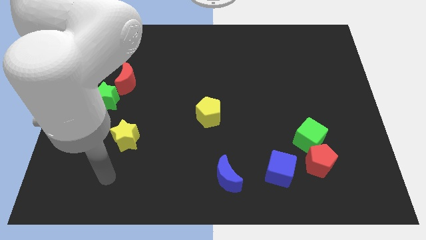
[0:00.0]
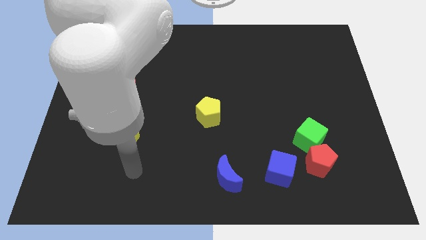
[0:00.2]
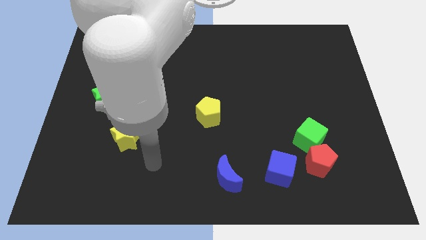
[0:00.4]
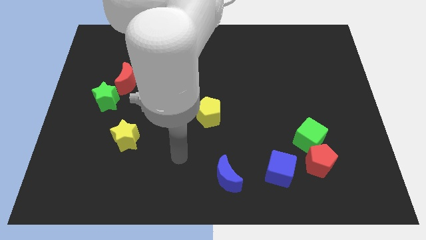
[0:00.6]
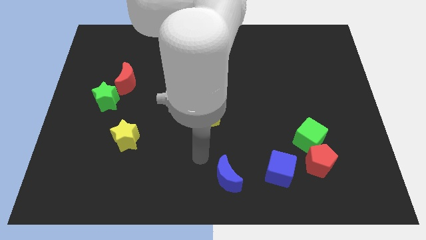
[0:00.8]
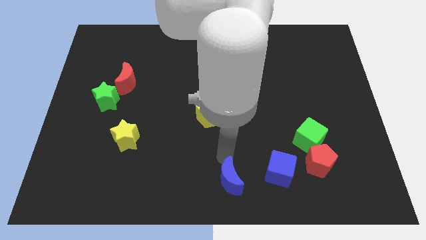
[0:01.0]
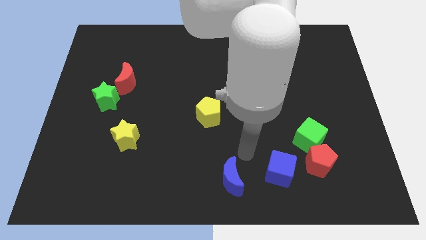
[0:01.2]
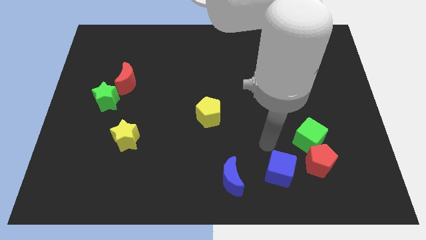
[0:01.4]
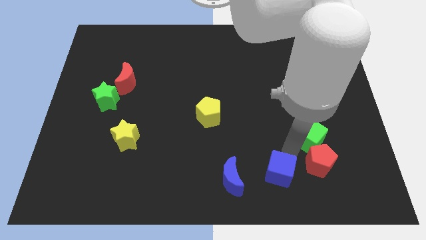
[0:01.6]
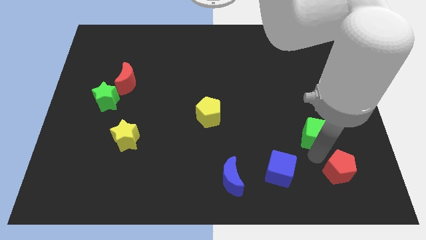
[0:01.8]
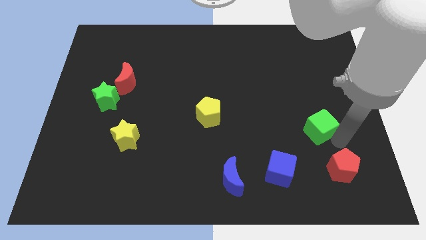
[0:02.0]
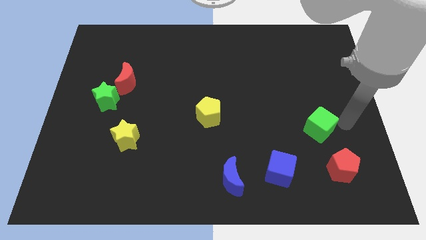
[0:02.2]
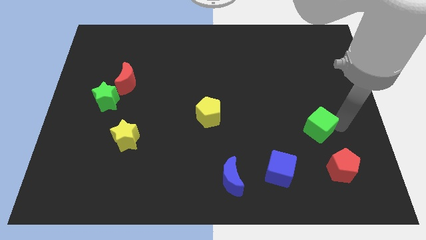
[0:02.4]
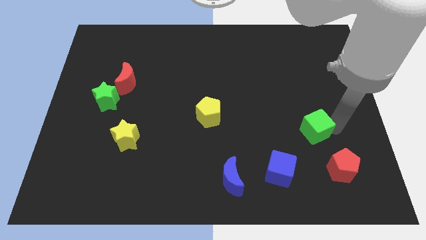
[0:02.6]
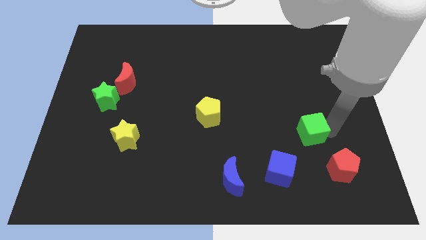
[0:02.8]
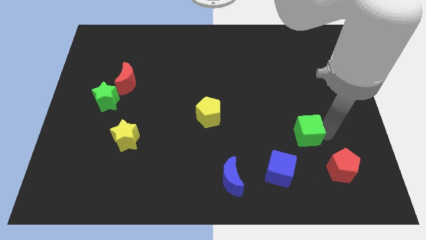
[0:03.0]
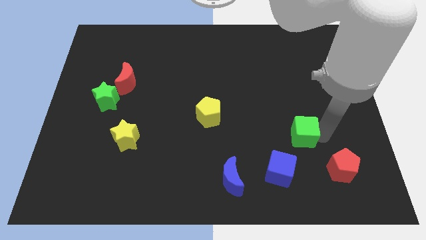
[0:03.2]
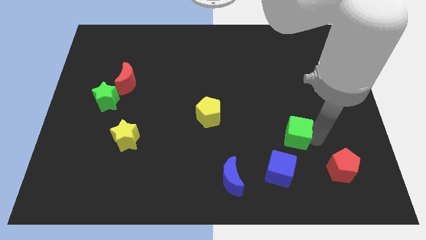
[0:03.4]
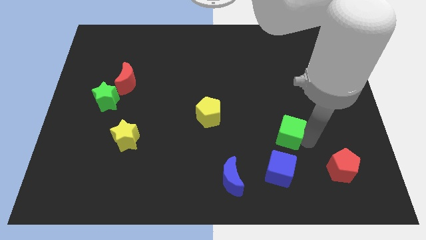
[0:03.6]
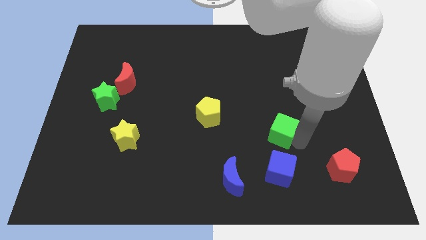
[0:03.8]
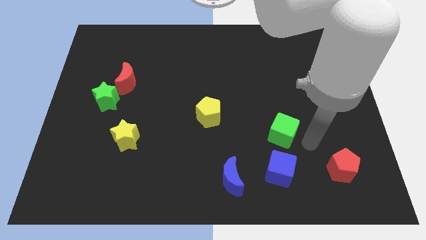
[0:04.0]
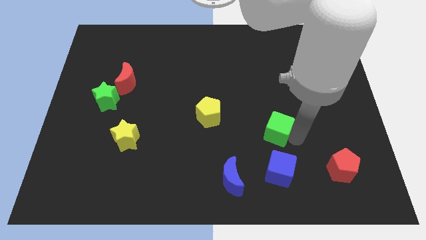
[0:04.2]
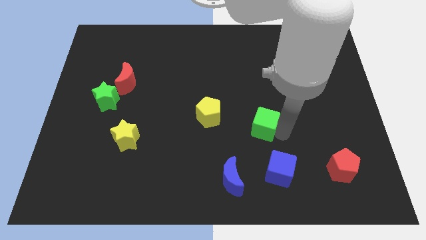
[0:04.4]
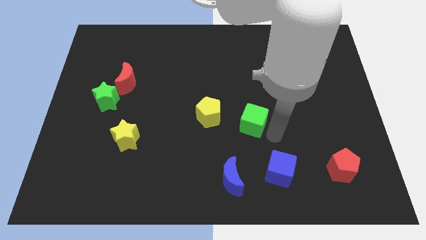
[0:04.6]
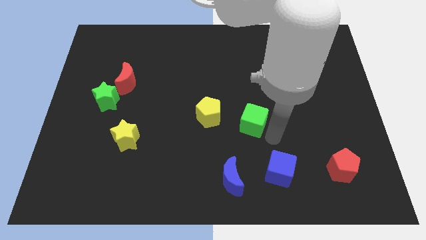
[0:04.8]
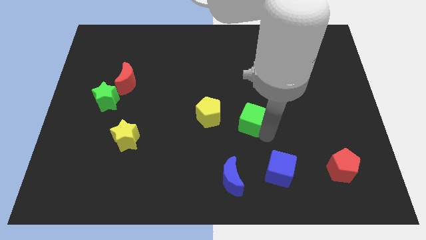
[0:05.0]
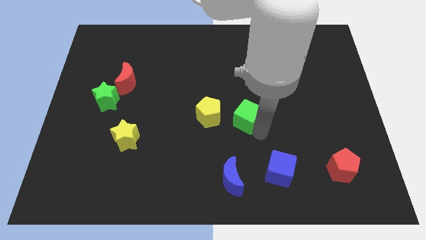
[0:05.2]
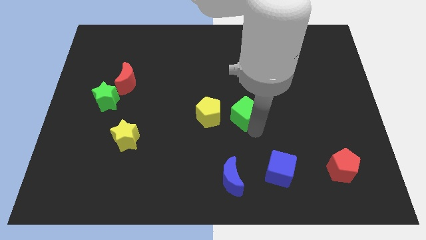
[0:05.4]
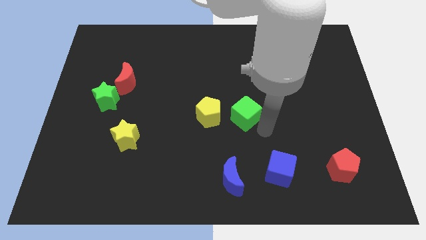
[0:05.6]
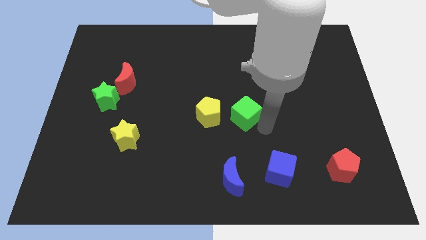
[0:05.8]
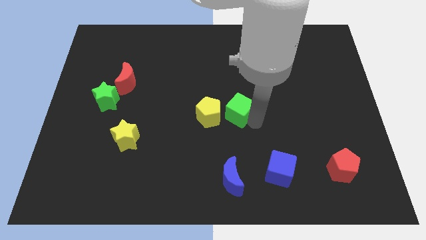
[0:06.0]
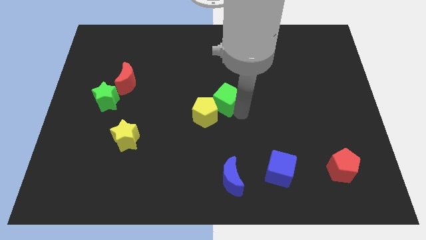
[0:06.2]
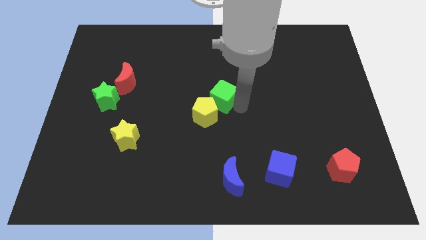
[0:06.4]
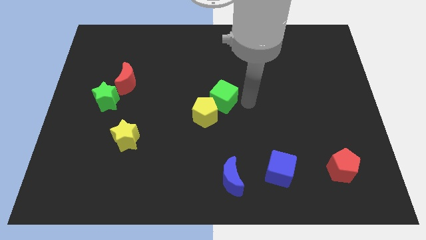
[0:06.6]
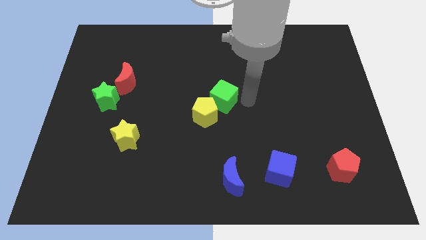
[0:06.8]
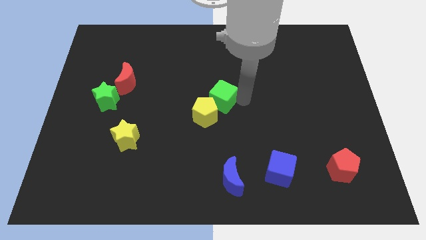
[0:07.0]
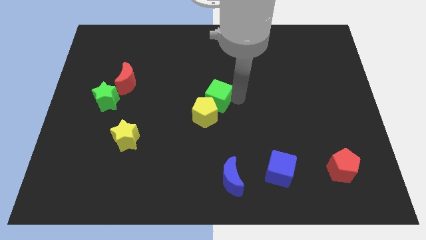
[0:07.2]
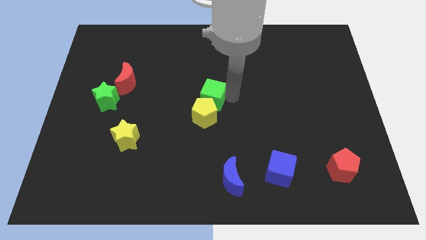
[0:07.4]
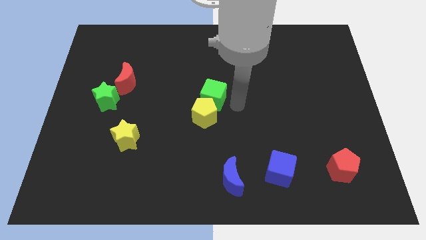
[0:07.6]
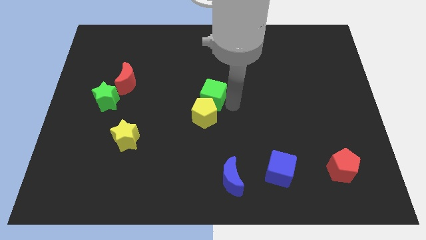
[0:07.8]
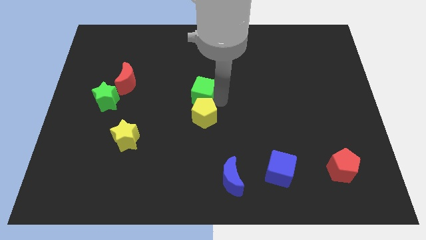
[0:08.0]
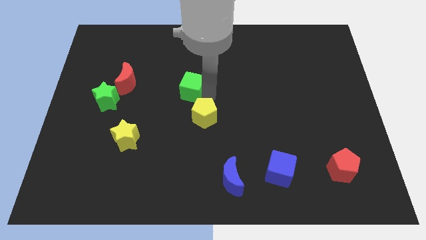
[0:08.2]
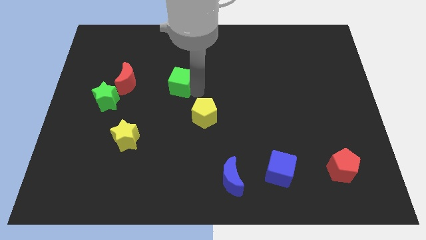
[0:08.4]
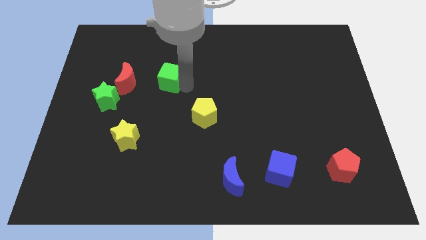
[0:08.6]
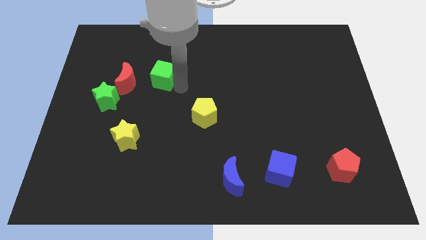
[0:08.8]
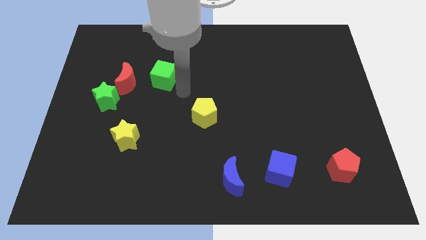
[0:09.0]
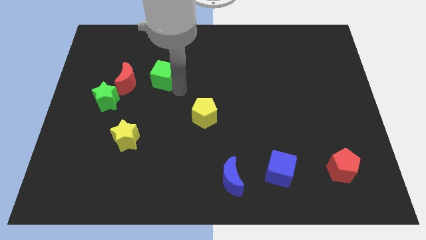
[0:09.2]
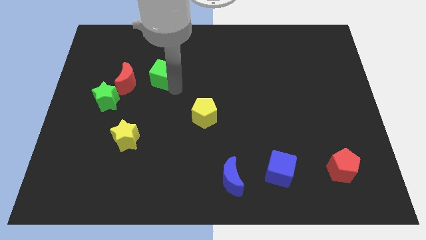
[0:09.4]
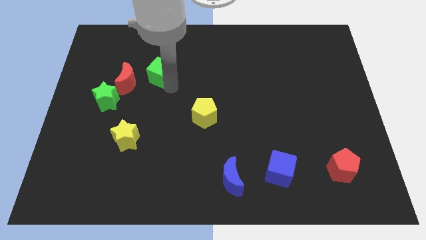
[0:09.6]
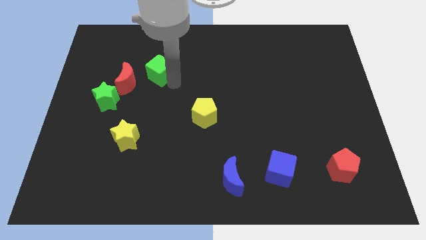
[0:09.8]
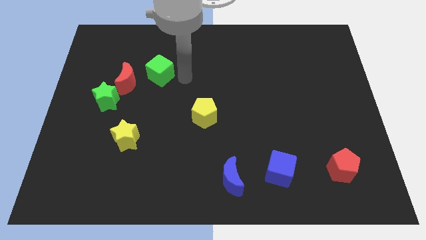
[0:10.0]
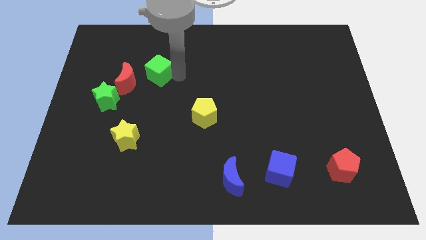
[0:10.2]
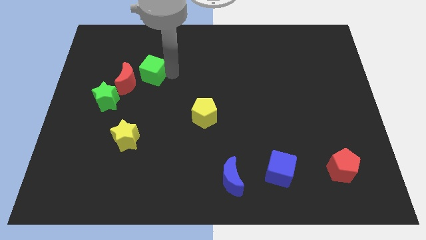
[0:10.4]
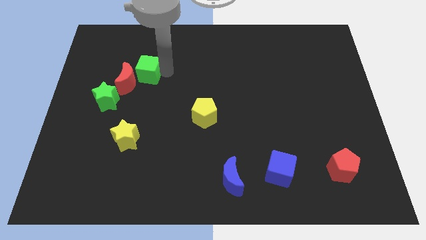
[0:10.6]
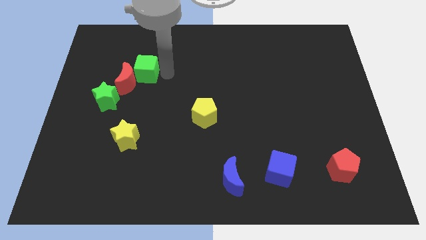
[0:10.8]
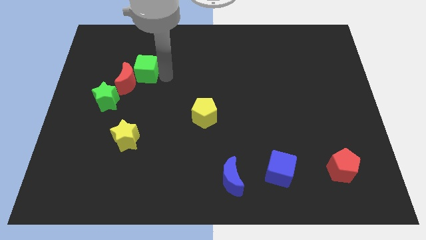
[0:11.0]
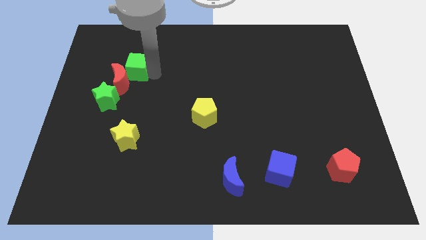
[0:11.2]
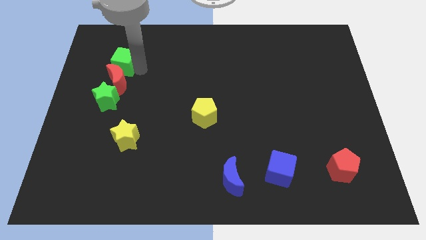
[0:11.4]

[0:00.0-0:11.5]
slide the green cube diagonally up and to the left of the red moon

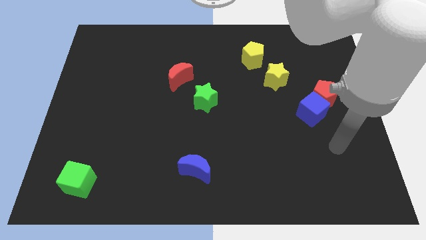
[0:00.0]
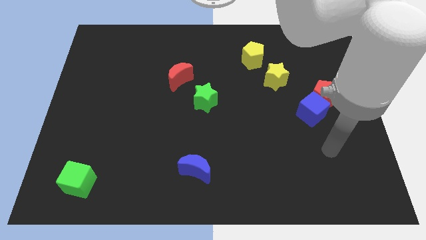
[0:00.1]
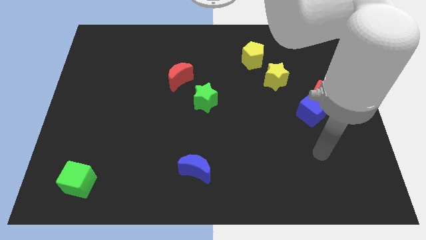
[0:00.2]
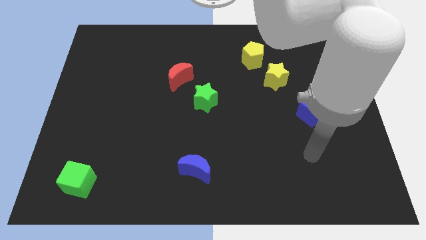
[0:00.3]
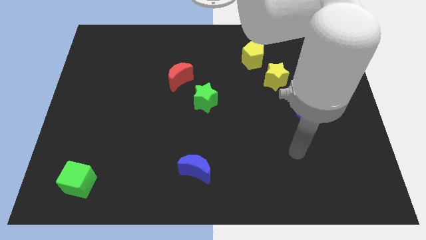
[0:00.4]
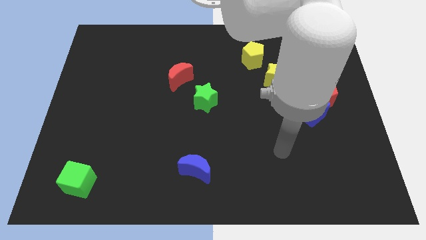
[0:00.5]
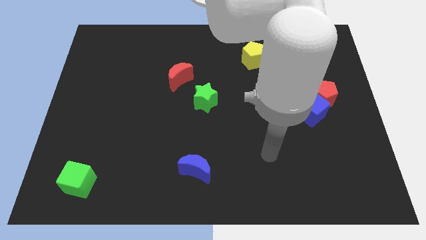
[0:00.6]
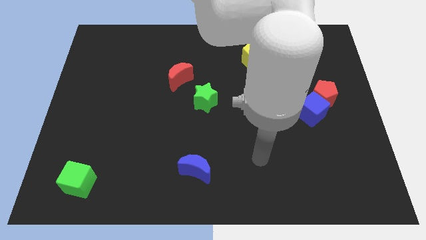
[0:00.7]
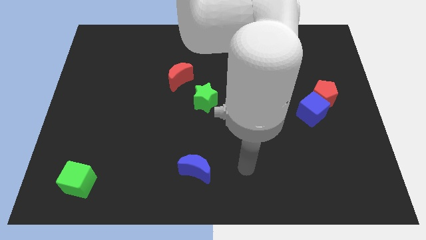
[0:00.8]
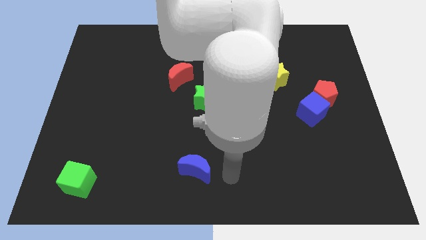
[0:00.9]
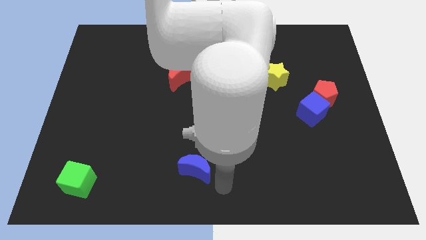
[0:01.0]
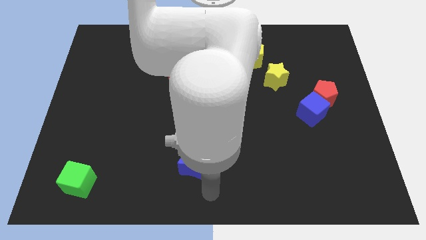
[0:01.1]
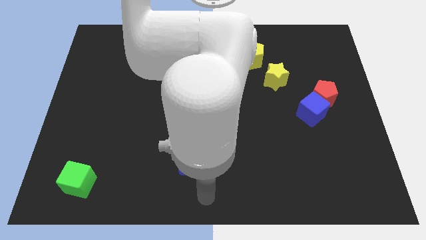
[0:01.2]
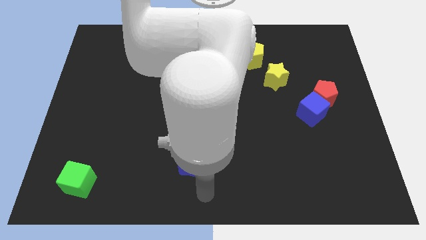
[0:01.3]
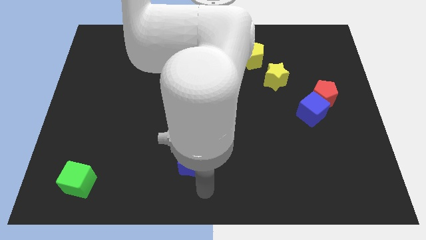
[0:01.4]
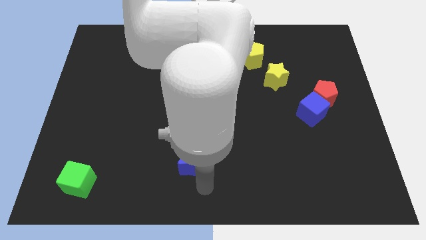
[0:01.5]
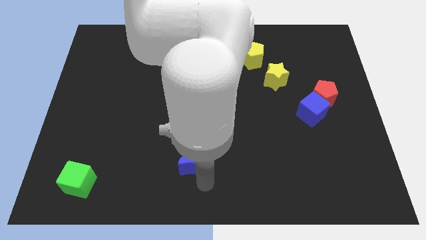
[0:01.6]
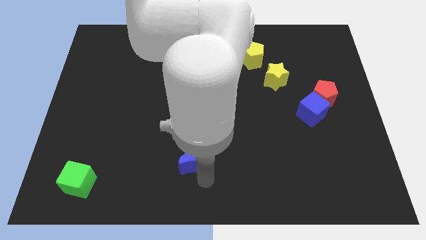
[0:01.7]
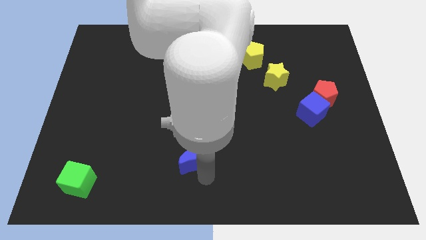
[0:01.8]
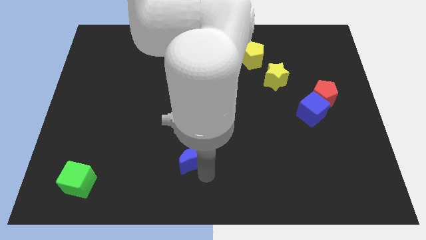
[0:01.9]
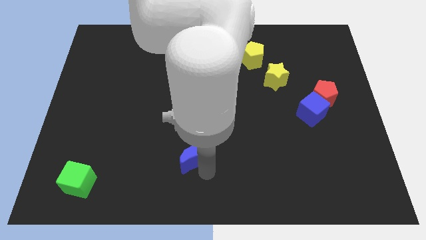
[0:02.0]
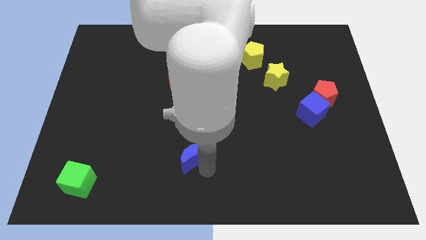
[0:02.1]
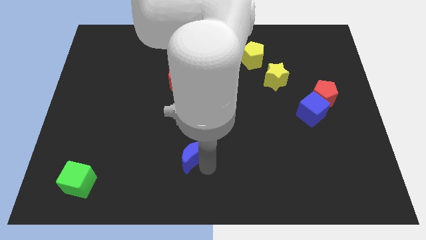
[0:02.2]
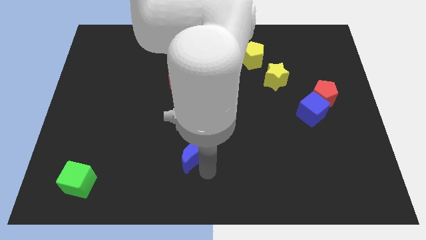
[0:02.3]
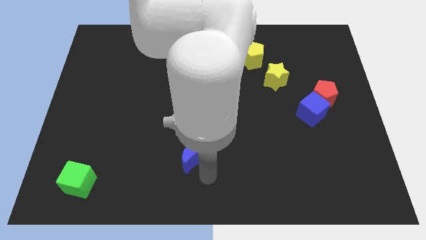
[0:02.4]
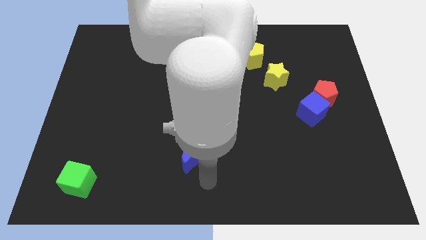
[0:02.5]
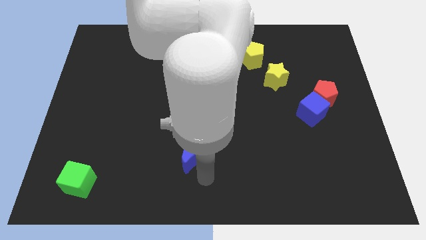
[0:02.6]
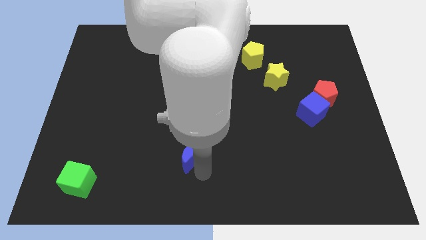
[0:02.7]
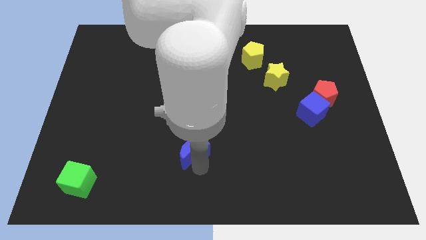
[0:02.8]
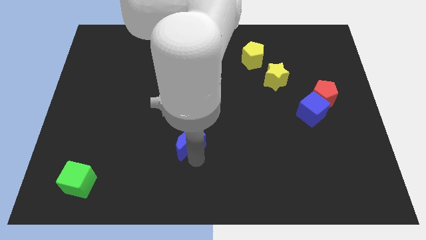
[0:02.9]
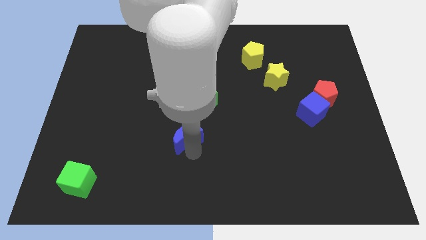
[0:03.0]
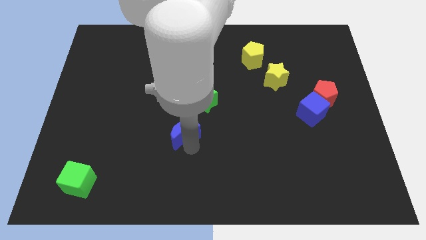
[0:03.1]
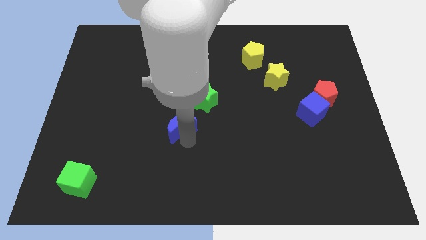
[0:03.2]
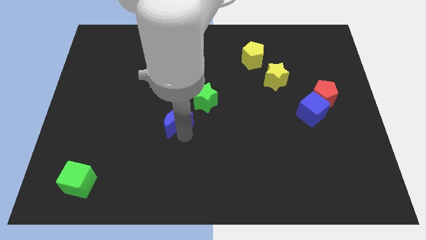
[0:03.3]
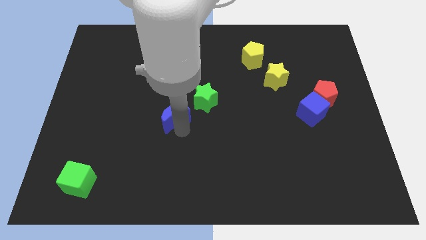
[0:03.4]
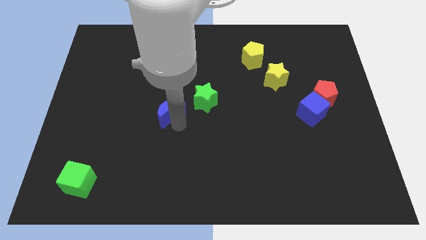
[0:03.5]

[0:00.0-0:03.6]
move the blue moon left of the green star
